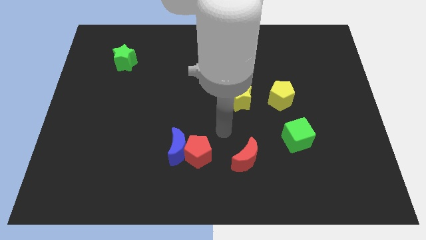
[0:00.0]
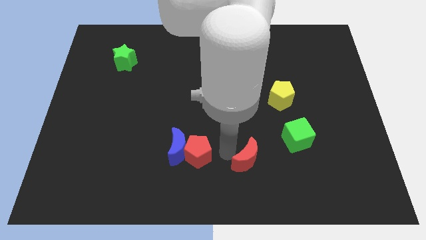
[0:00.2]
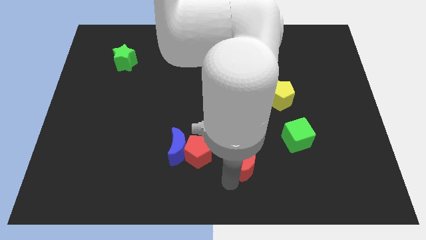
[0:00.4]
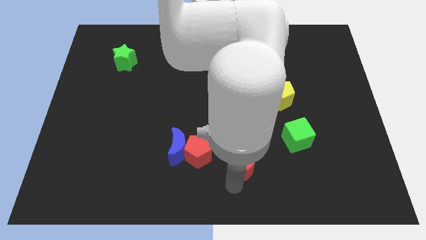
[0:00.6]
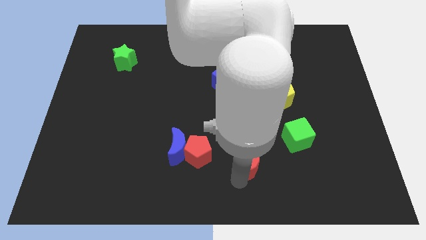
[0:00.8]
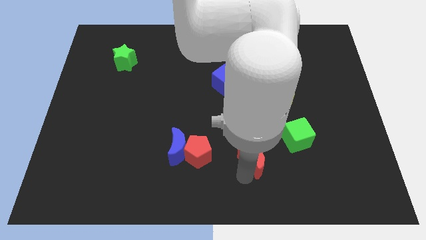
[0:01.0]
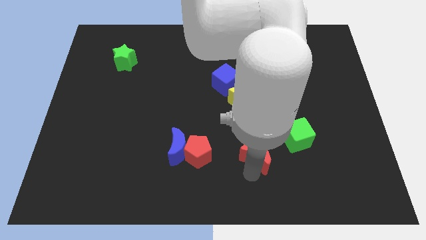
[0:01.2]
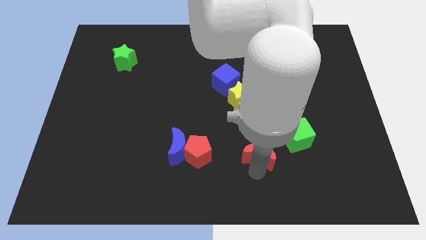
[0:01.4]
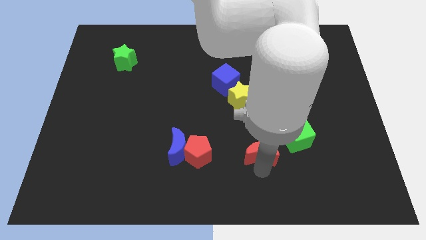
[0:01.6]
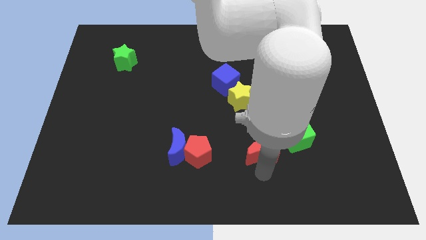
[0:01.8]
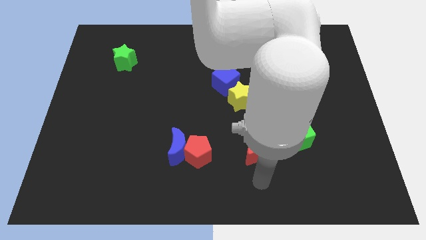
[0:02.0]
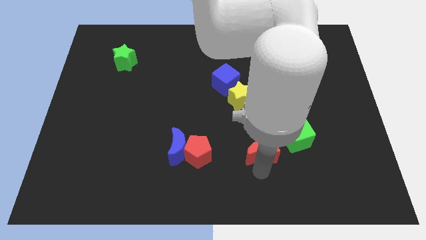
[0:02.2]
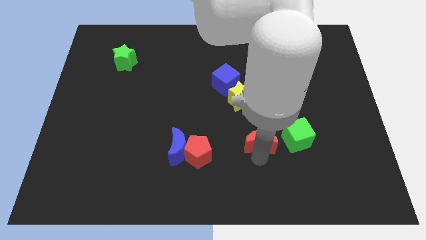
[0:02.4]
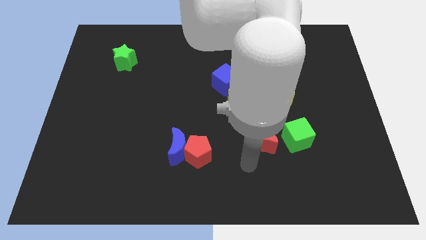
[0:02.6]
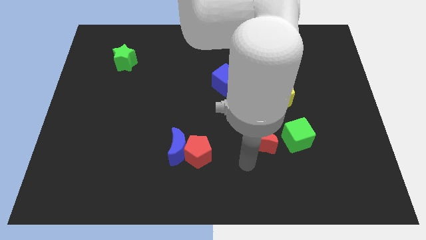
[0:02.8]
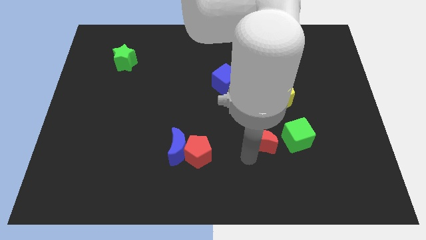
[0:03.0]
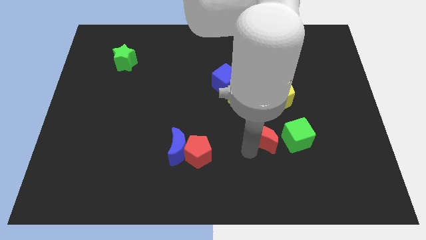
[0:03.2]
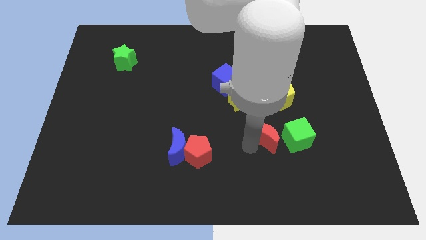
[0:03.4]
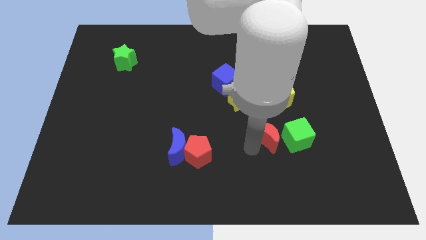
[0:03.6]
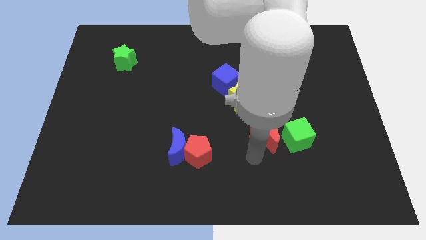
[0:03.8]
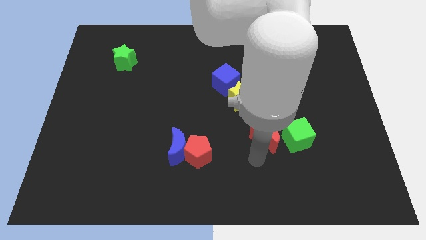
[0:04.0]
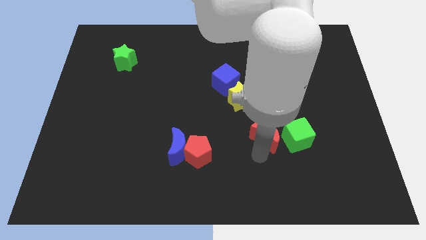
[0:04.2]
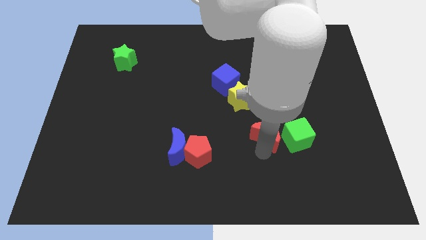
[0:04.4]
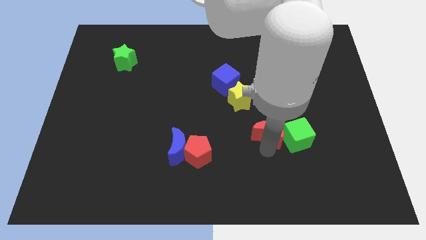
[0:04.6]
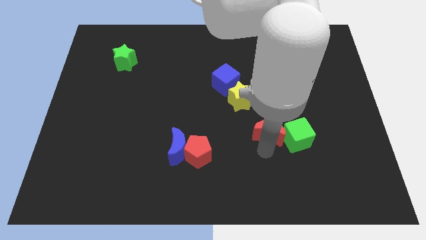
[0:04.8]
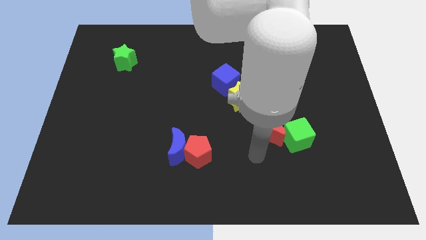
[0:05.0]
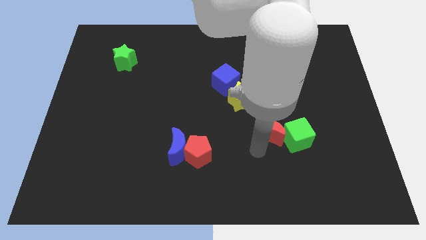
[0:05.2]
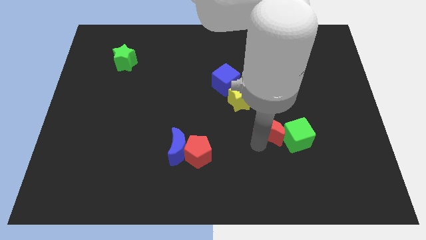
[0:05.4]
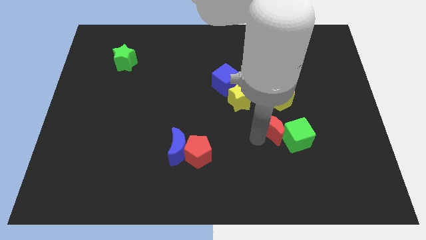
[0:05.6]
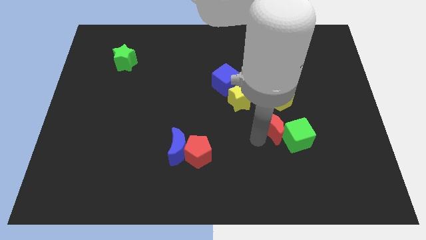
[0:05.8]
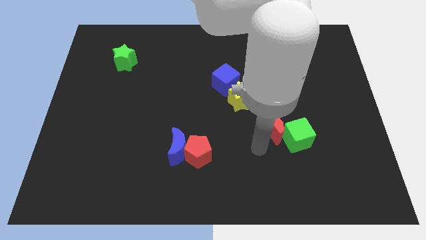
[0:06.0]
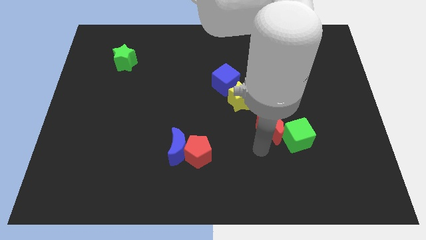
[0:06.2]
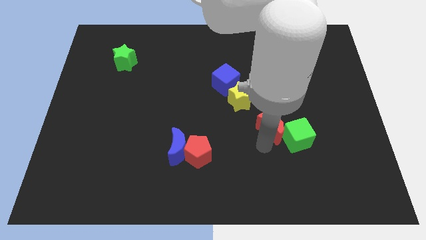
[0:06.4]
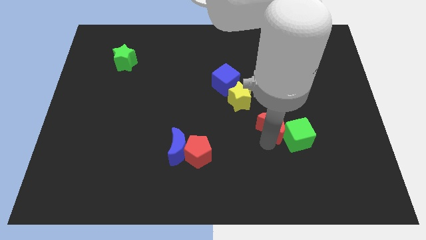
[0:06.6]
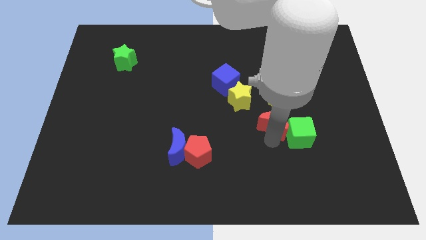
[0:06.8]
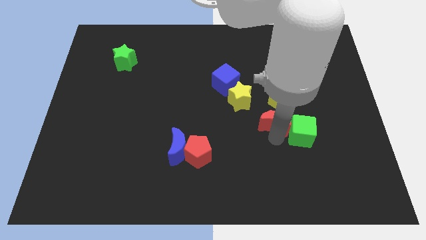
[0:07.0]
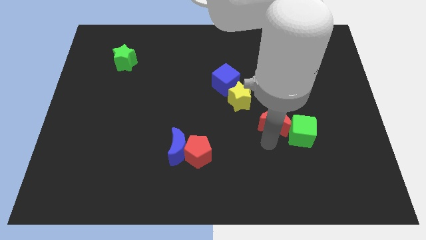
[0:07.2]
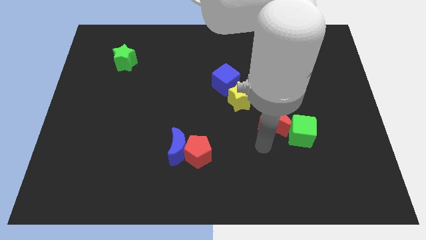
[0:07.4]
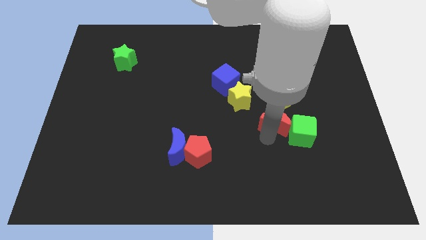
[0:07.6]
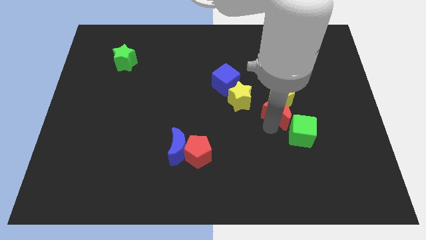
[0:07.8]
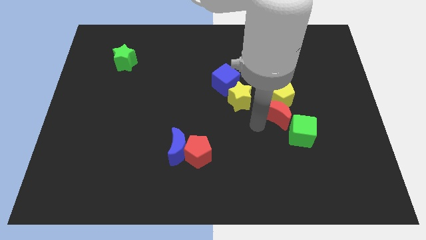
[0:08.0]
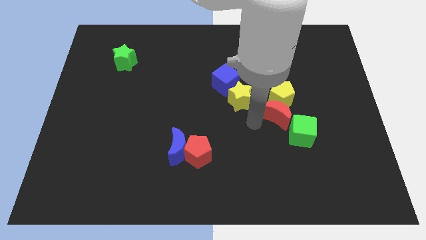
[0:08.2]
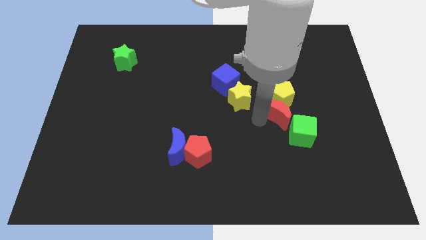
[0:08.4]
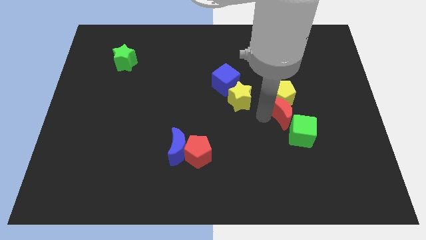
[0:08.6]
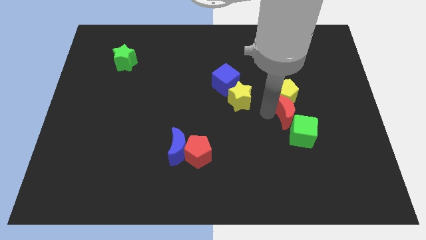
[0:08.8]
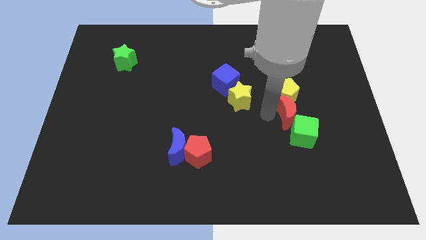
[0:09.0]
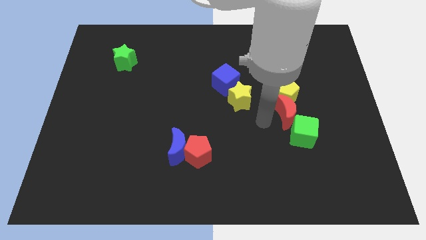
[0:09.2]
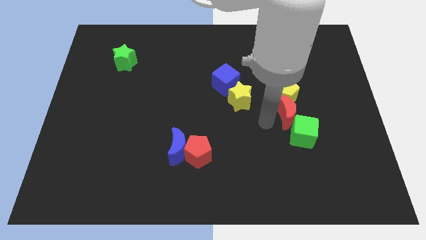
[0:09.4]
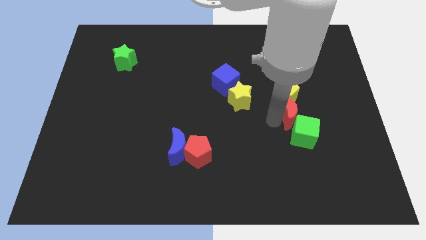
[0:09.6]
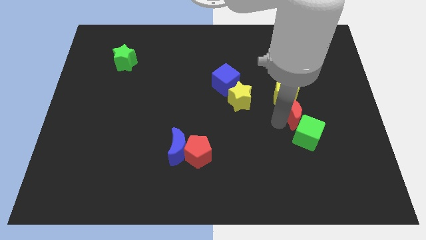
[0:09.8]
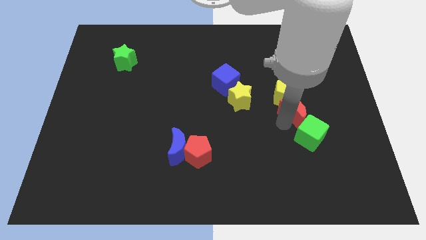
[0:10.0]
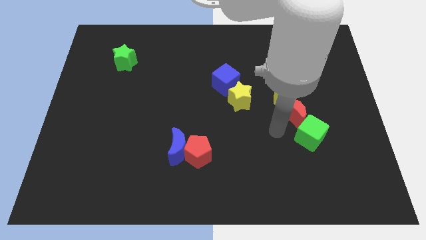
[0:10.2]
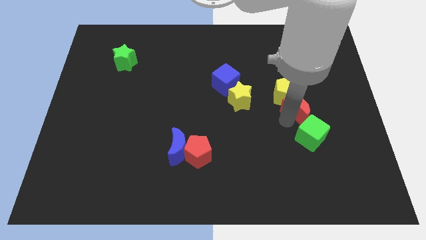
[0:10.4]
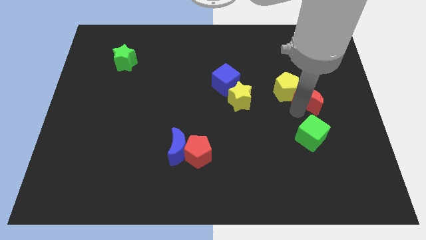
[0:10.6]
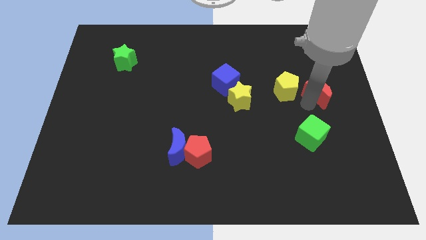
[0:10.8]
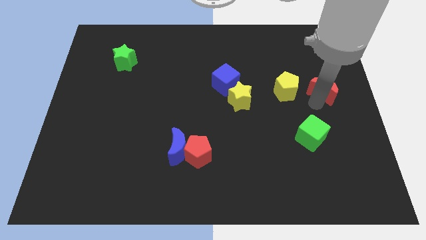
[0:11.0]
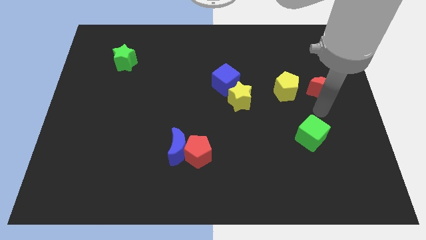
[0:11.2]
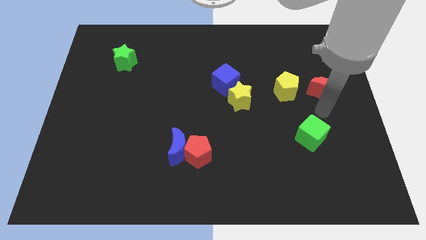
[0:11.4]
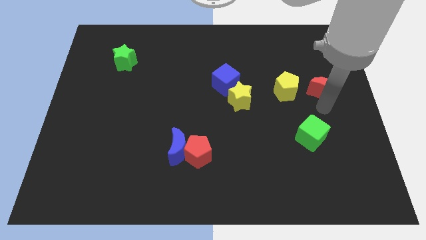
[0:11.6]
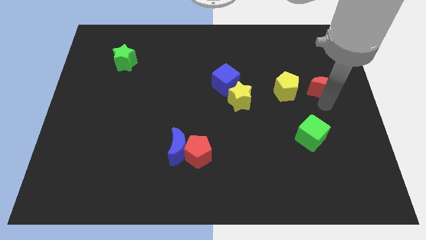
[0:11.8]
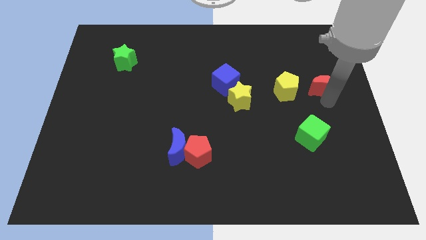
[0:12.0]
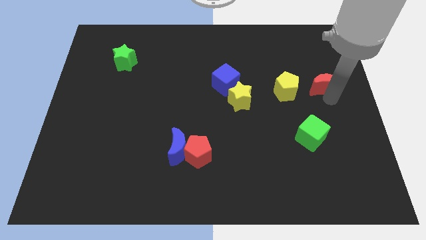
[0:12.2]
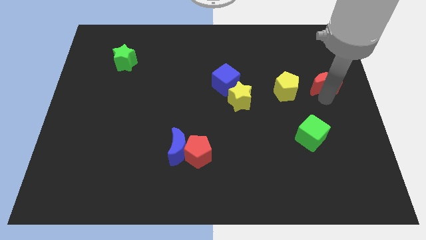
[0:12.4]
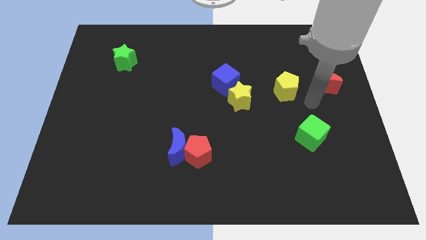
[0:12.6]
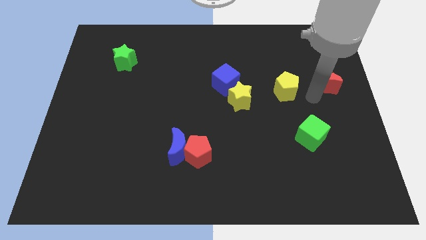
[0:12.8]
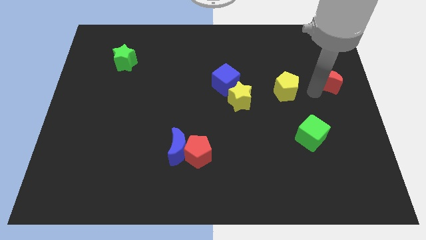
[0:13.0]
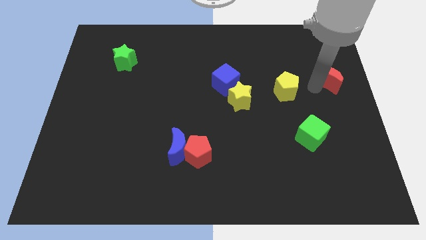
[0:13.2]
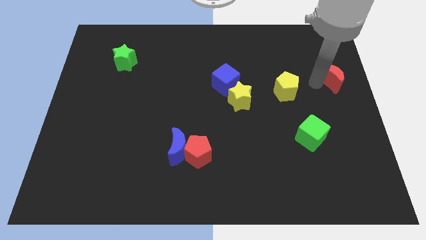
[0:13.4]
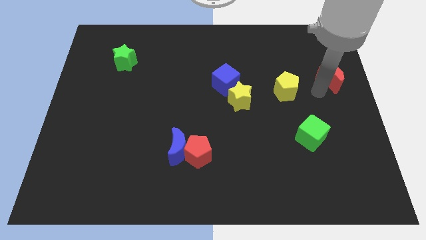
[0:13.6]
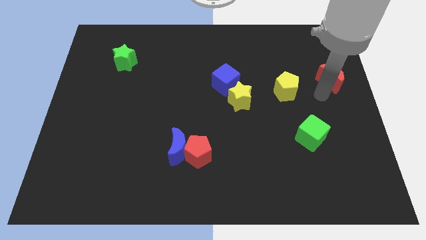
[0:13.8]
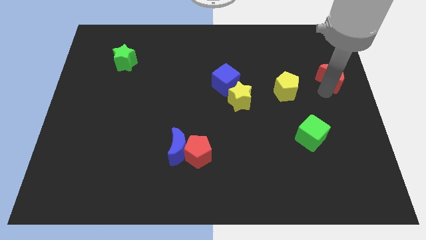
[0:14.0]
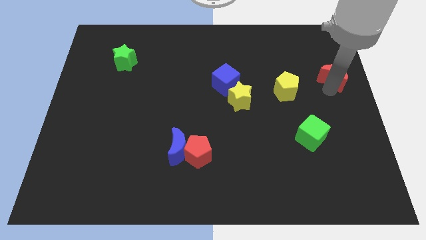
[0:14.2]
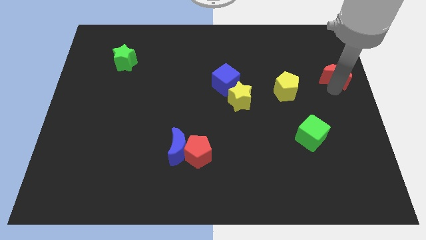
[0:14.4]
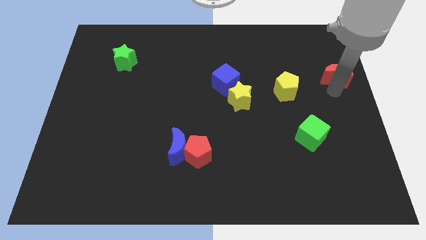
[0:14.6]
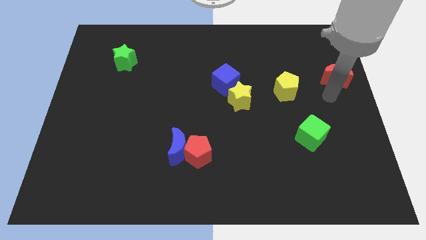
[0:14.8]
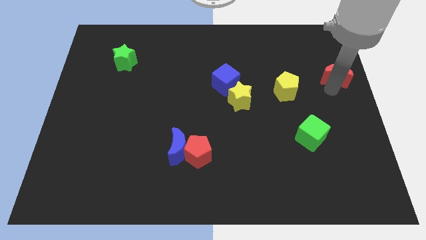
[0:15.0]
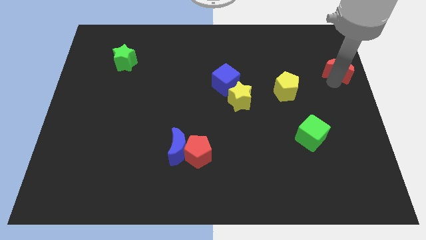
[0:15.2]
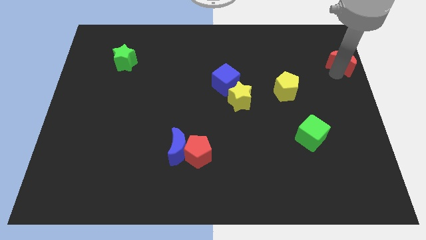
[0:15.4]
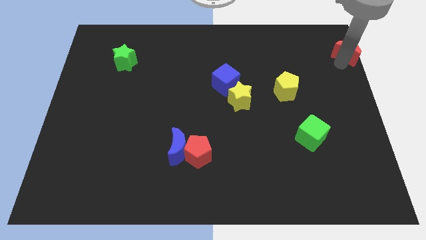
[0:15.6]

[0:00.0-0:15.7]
slide the red moon to the upper right corner
